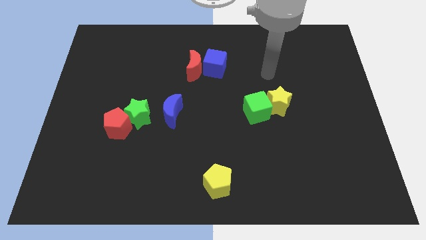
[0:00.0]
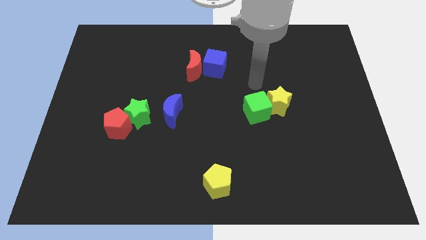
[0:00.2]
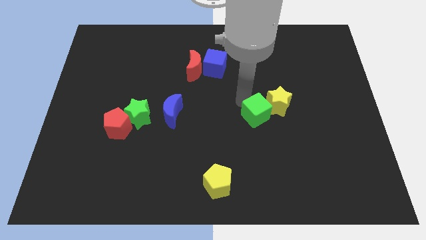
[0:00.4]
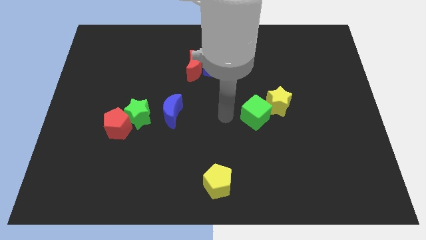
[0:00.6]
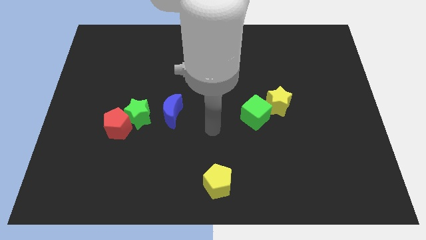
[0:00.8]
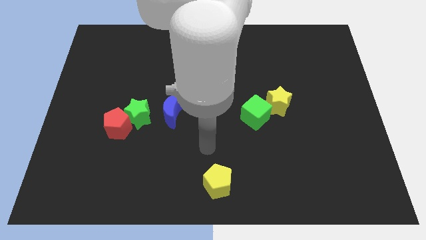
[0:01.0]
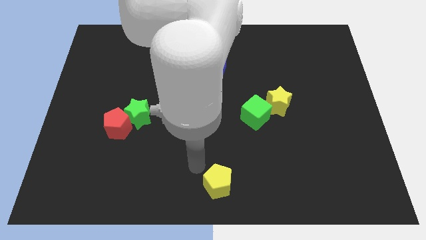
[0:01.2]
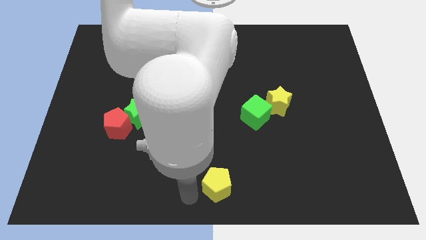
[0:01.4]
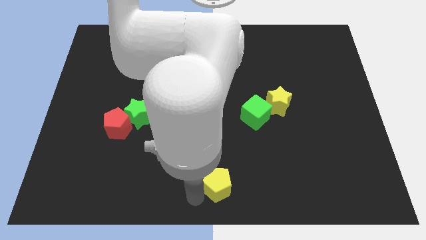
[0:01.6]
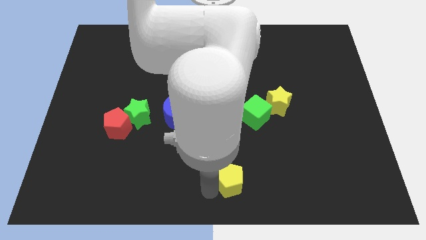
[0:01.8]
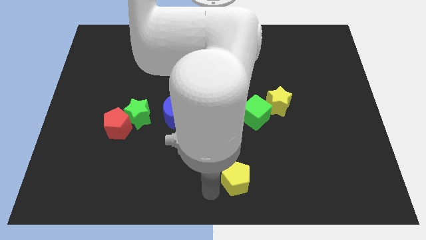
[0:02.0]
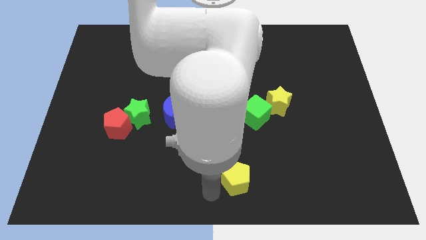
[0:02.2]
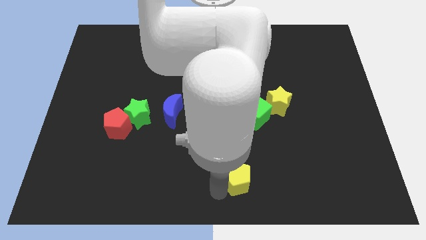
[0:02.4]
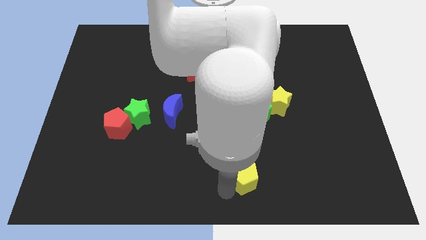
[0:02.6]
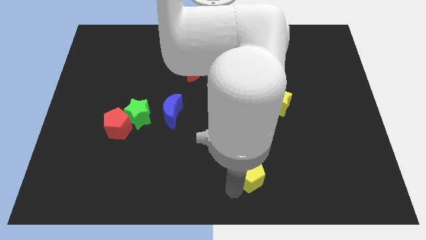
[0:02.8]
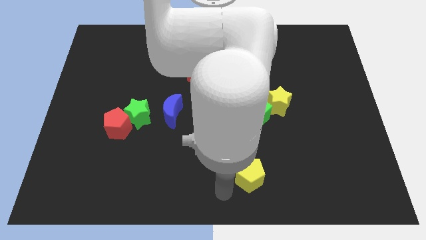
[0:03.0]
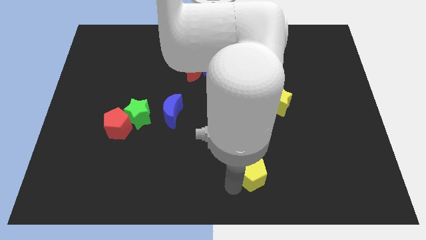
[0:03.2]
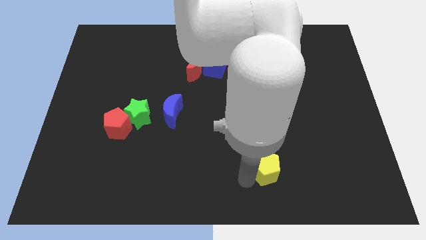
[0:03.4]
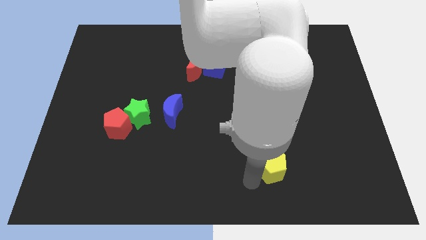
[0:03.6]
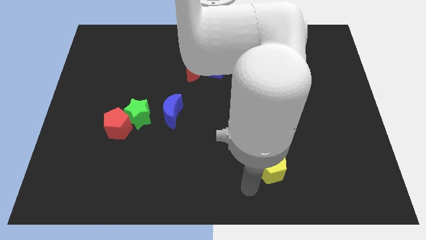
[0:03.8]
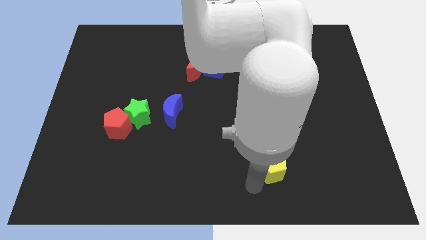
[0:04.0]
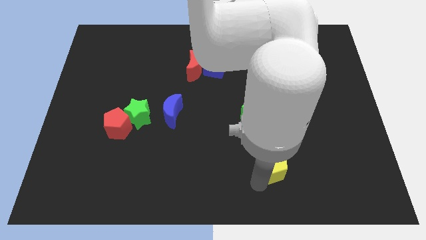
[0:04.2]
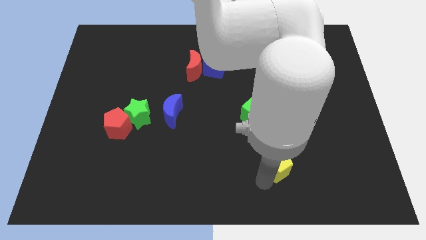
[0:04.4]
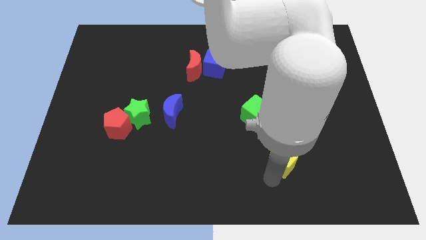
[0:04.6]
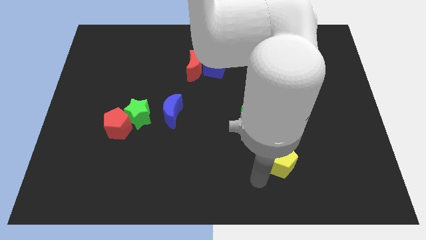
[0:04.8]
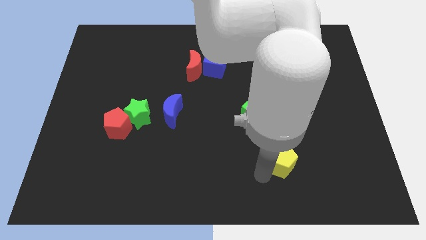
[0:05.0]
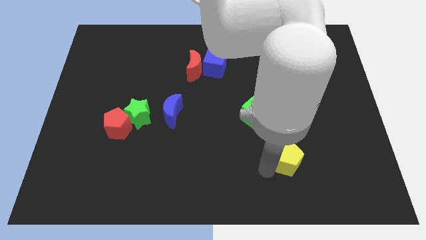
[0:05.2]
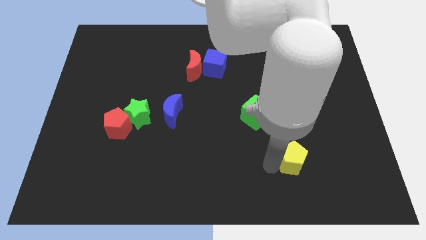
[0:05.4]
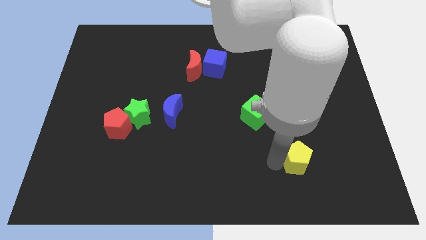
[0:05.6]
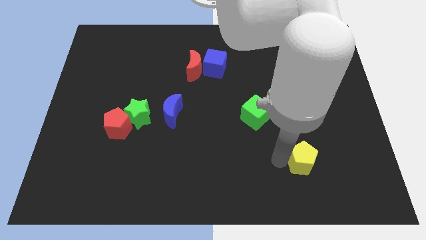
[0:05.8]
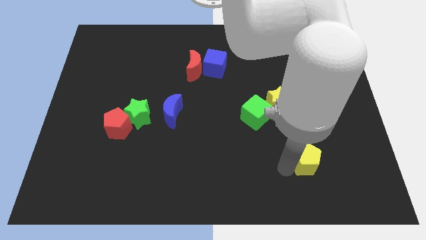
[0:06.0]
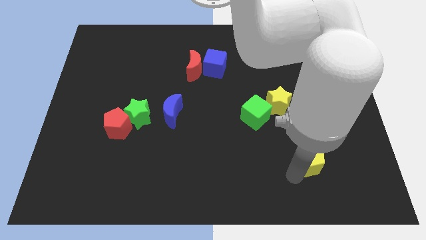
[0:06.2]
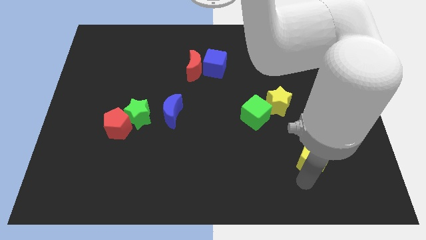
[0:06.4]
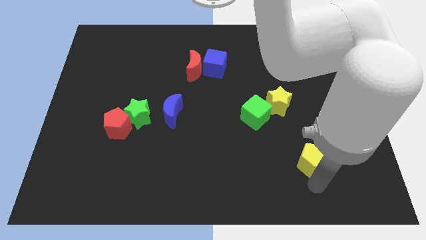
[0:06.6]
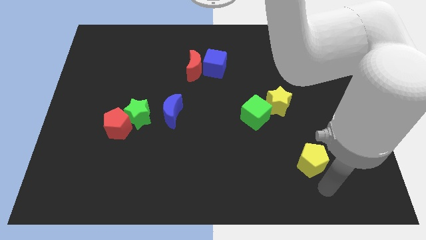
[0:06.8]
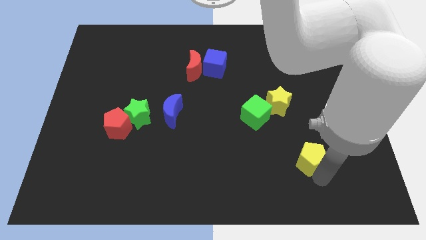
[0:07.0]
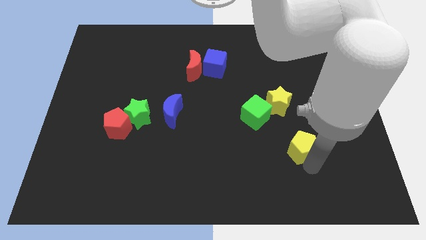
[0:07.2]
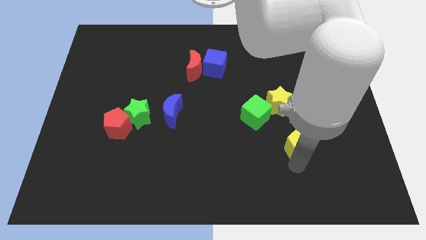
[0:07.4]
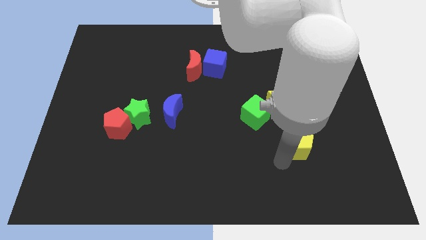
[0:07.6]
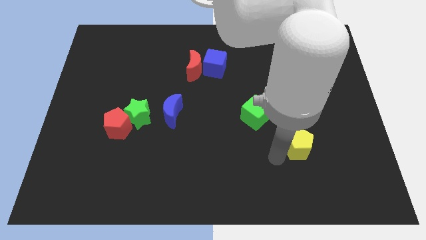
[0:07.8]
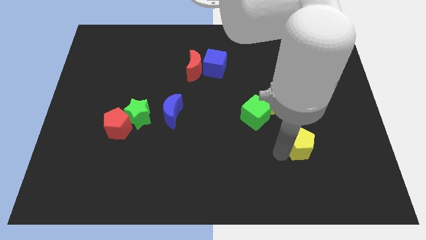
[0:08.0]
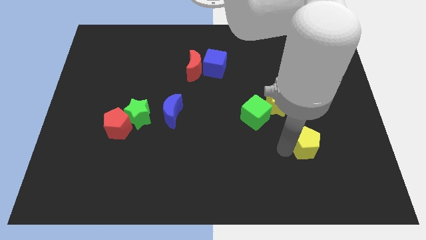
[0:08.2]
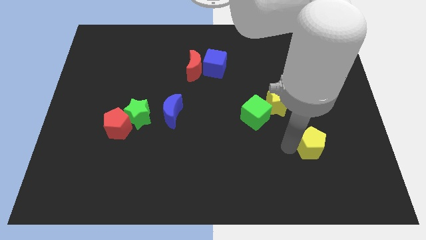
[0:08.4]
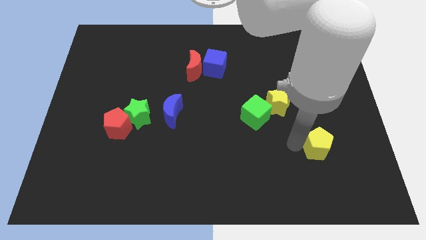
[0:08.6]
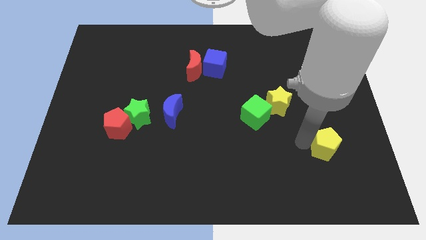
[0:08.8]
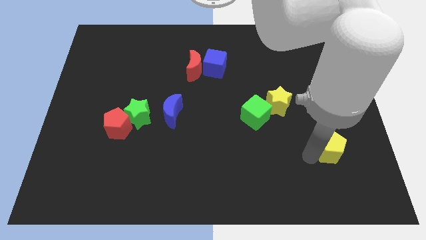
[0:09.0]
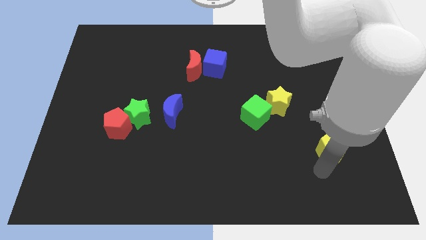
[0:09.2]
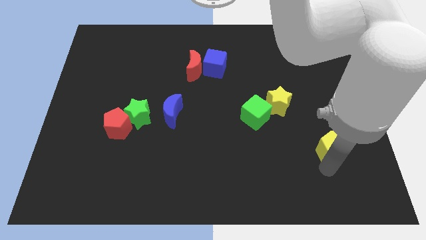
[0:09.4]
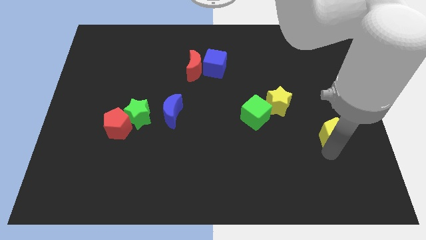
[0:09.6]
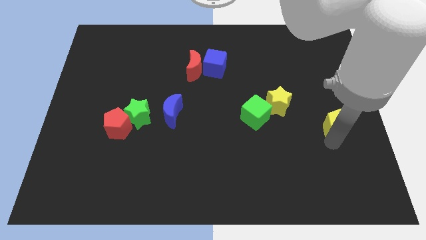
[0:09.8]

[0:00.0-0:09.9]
slide the yellow pentagon to the right side of the board
